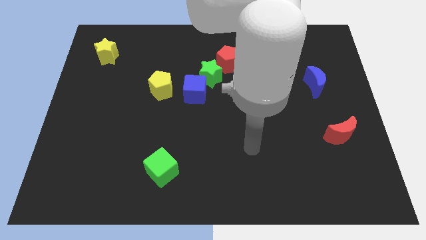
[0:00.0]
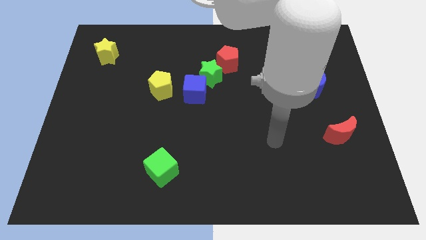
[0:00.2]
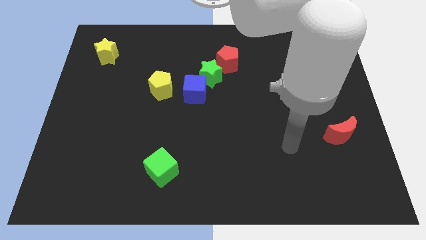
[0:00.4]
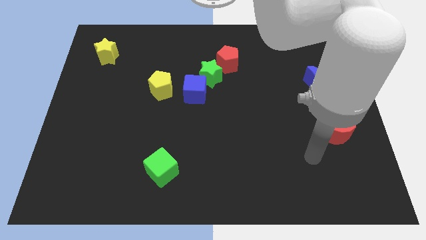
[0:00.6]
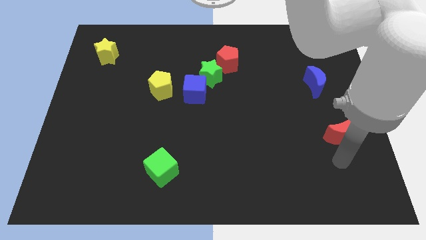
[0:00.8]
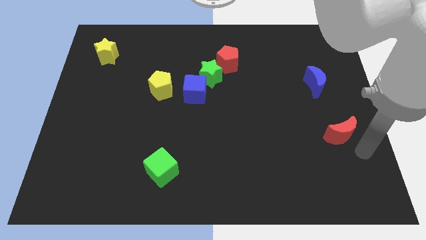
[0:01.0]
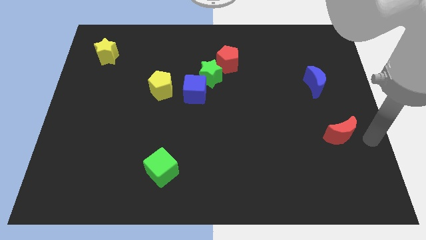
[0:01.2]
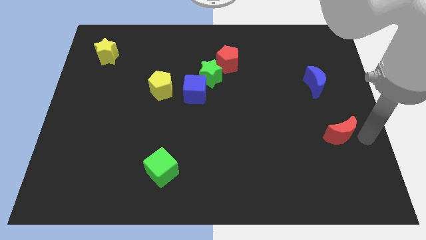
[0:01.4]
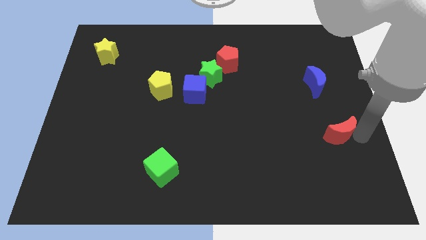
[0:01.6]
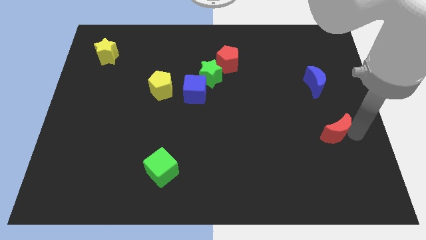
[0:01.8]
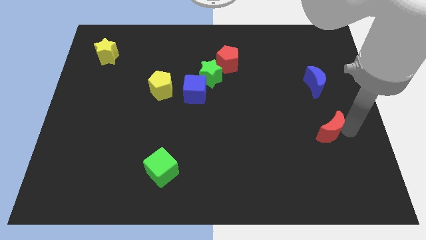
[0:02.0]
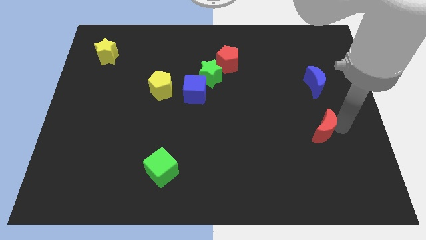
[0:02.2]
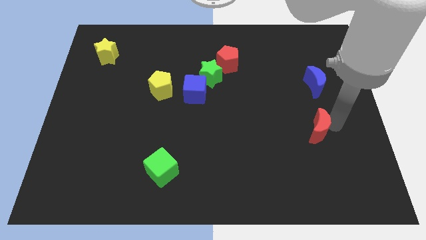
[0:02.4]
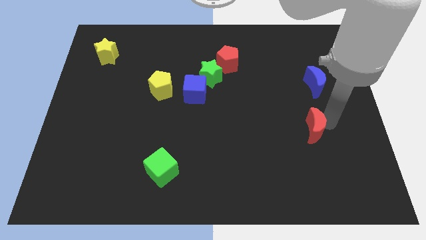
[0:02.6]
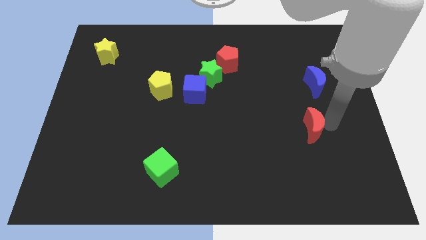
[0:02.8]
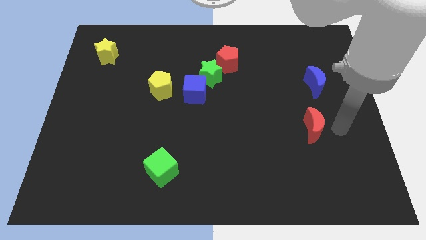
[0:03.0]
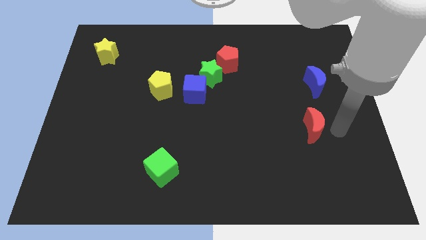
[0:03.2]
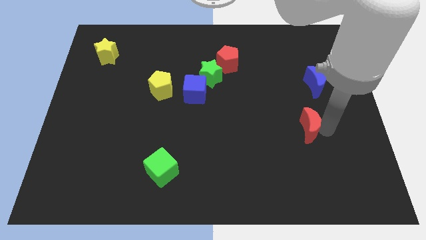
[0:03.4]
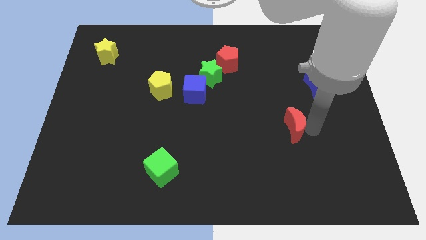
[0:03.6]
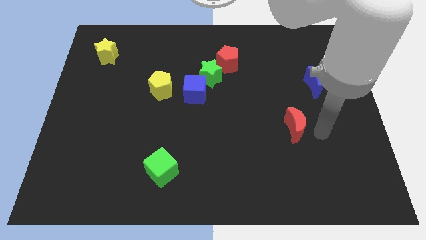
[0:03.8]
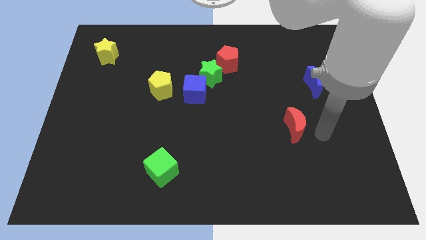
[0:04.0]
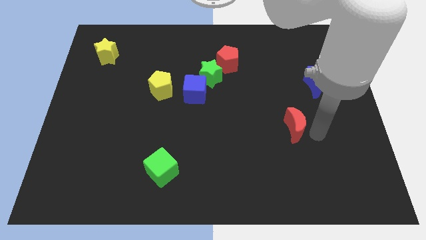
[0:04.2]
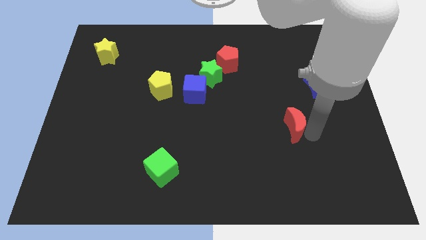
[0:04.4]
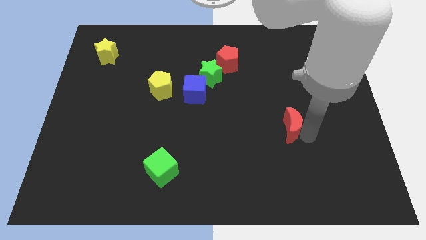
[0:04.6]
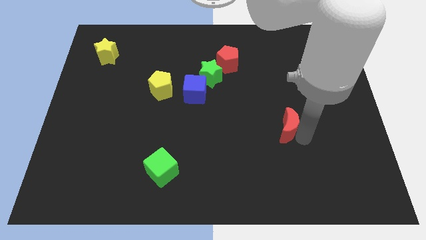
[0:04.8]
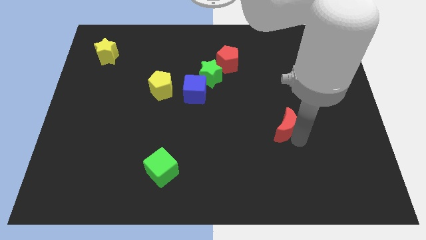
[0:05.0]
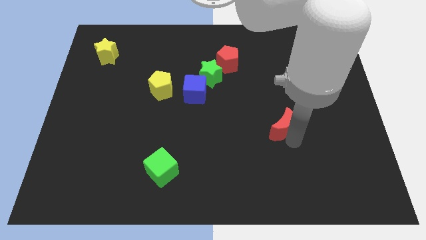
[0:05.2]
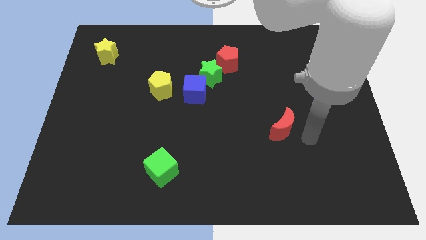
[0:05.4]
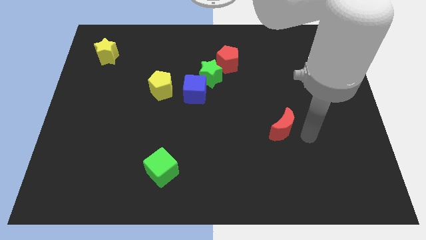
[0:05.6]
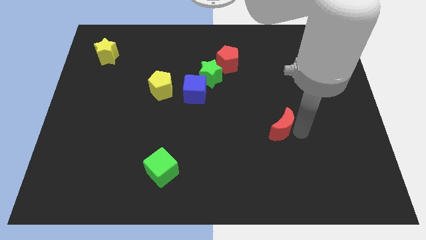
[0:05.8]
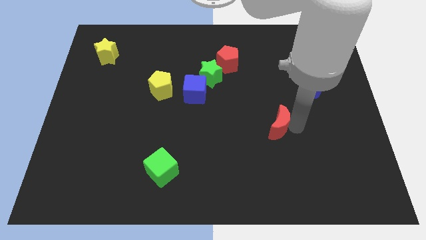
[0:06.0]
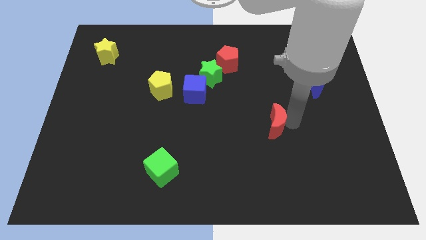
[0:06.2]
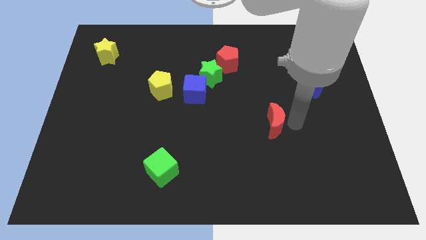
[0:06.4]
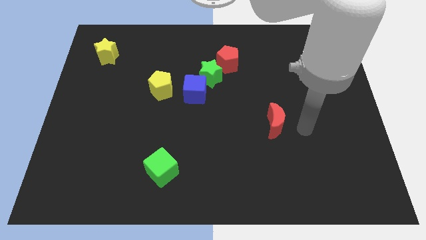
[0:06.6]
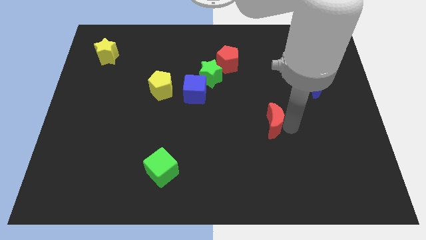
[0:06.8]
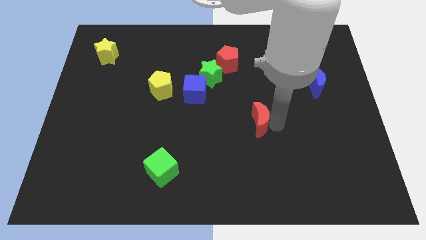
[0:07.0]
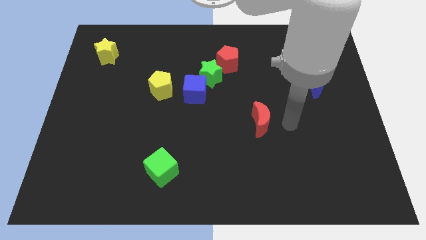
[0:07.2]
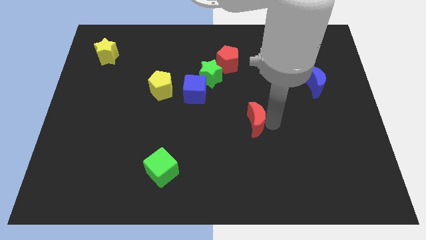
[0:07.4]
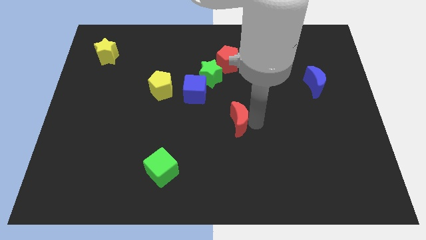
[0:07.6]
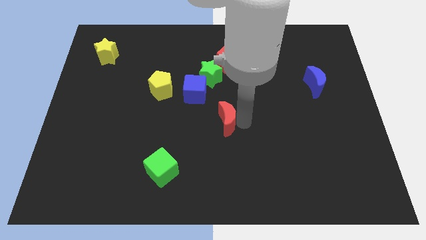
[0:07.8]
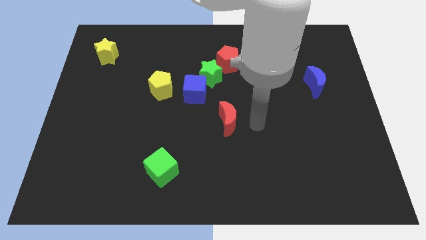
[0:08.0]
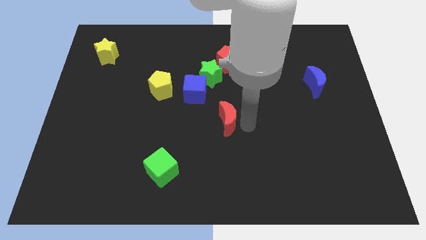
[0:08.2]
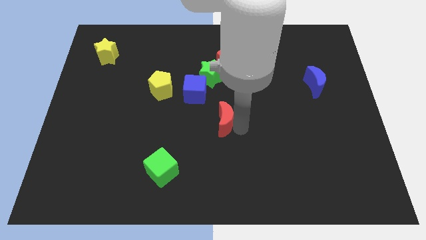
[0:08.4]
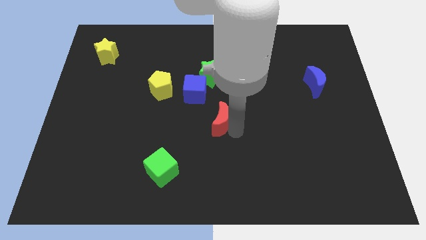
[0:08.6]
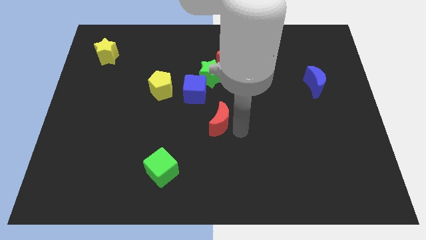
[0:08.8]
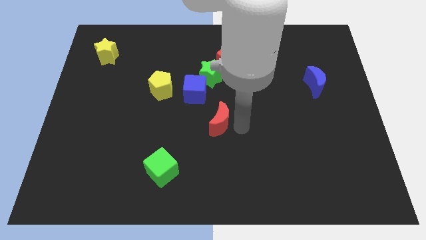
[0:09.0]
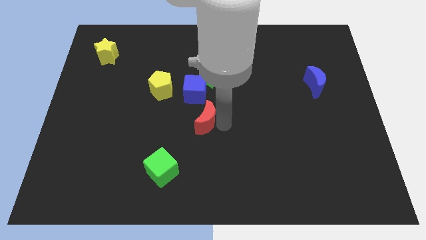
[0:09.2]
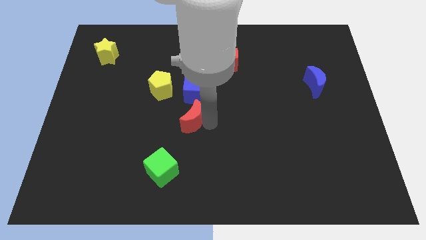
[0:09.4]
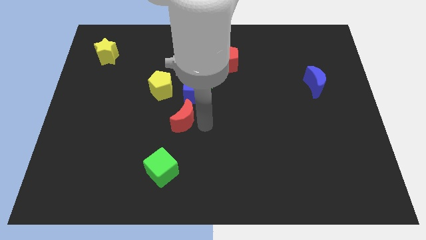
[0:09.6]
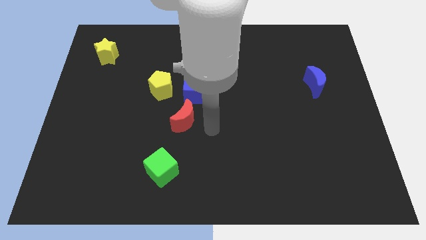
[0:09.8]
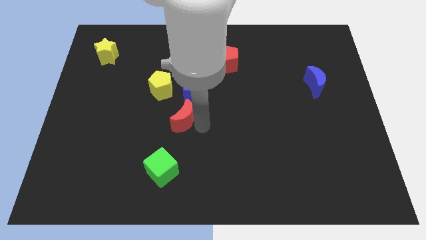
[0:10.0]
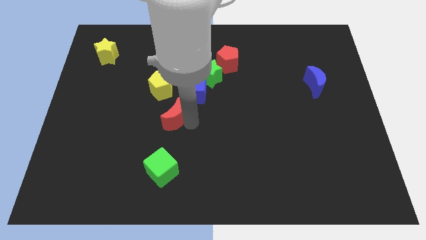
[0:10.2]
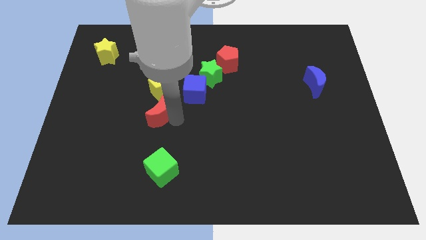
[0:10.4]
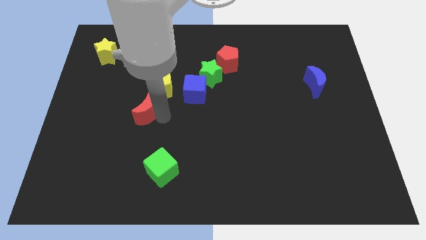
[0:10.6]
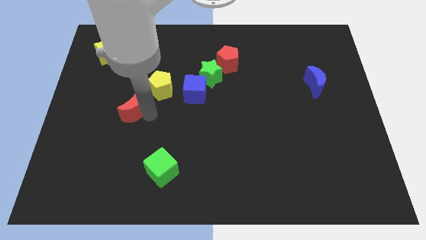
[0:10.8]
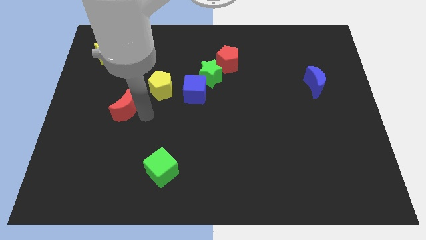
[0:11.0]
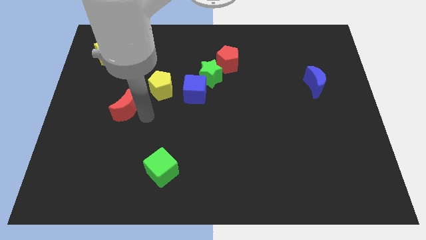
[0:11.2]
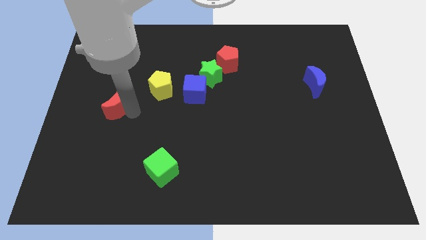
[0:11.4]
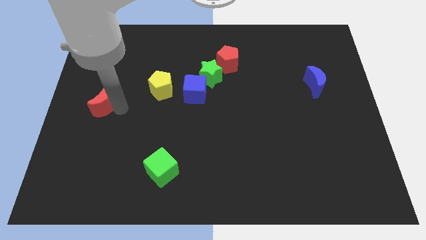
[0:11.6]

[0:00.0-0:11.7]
push the red moon to the left side
